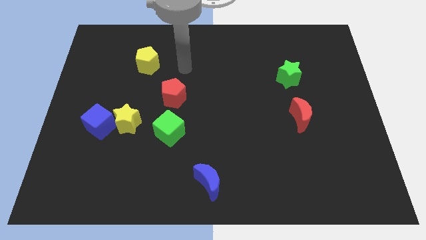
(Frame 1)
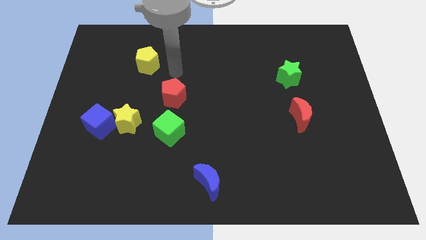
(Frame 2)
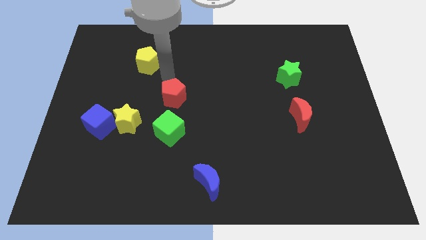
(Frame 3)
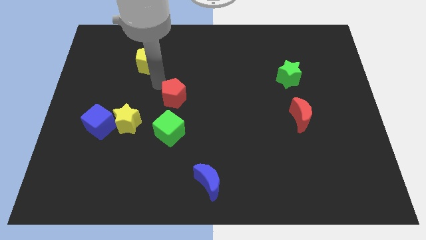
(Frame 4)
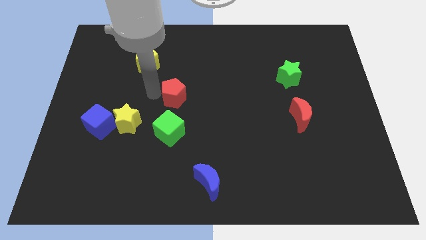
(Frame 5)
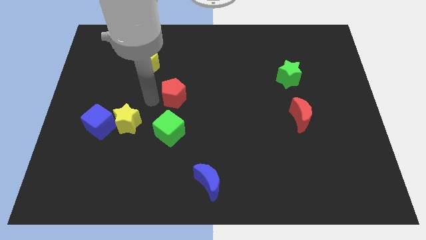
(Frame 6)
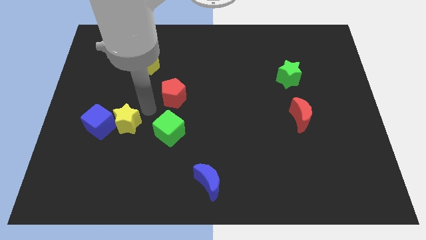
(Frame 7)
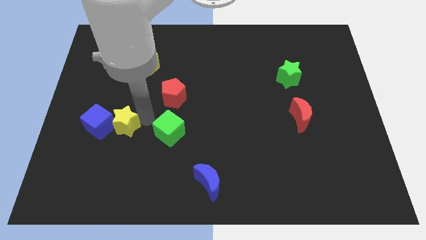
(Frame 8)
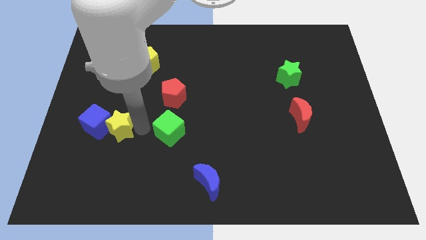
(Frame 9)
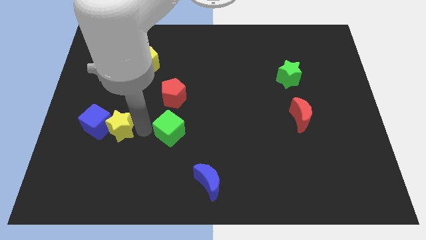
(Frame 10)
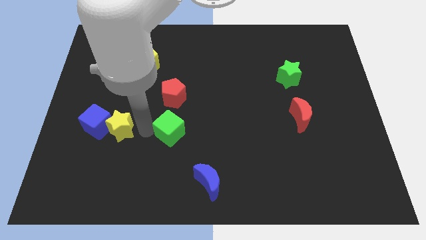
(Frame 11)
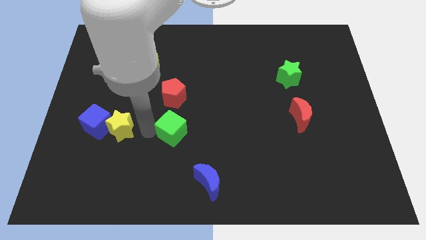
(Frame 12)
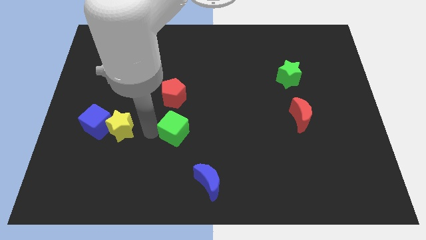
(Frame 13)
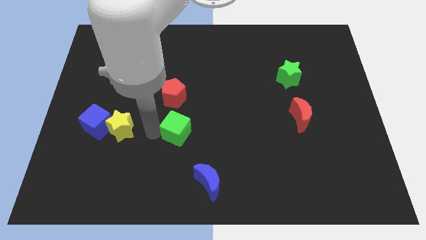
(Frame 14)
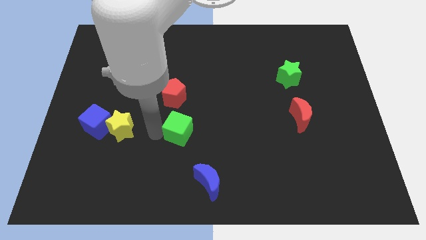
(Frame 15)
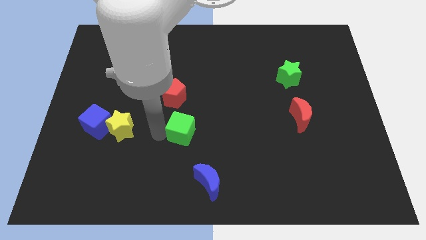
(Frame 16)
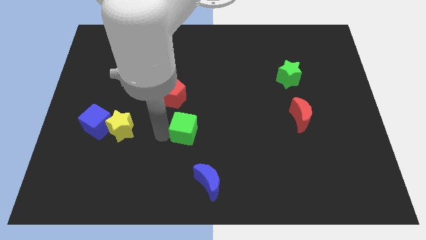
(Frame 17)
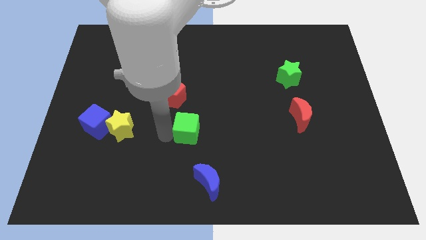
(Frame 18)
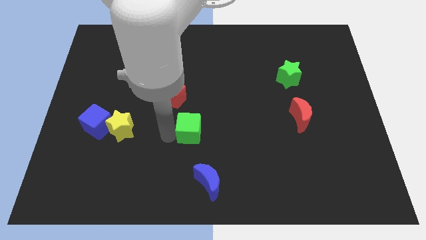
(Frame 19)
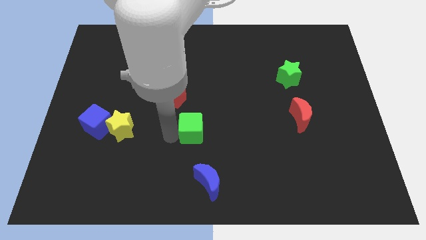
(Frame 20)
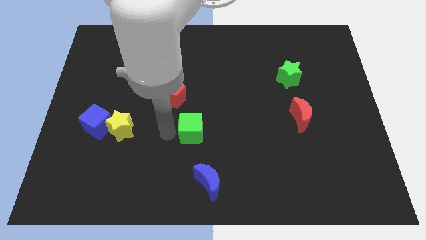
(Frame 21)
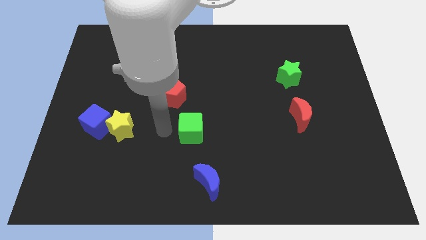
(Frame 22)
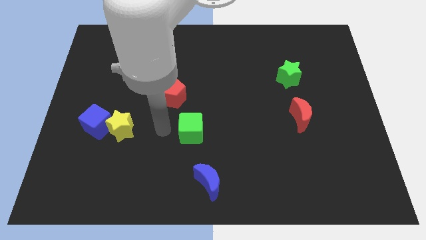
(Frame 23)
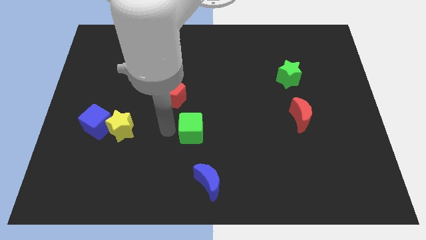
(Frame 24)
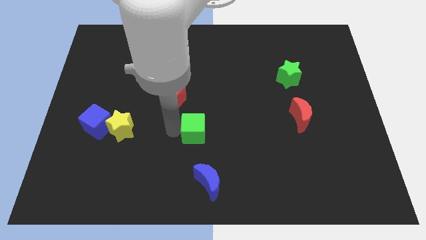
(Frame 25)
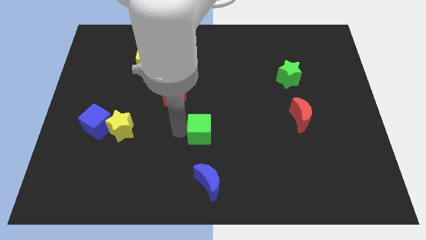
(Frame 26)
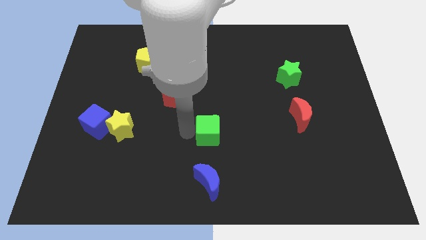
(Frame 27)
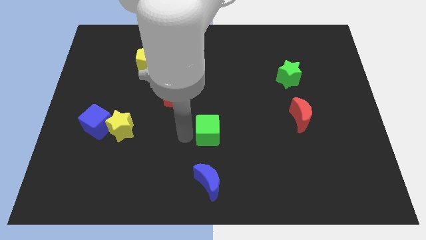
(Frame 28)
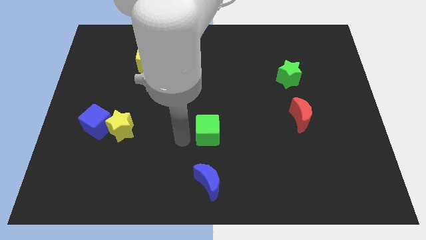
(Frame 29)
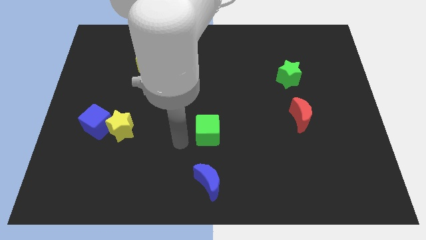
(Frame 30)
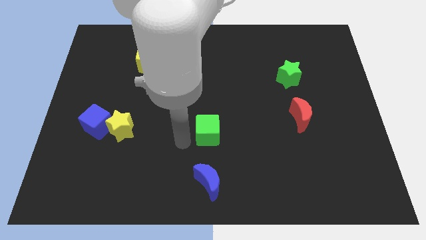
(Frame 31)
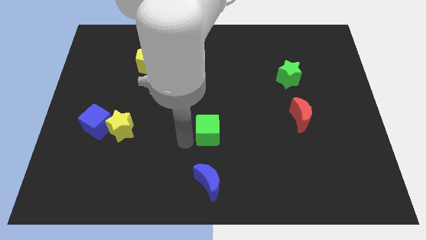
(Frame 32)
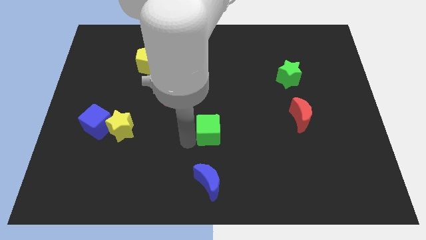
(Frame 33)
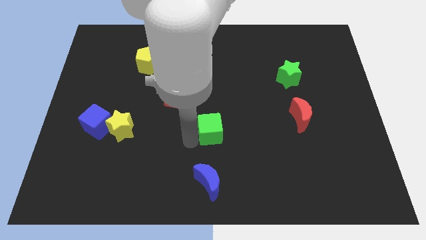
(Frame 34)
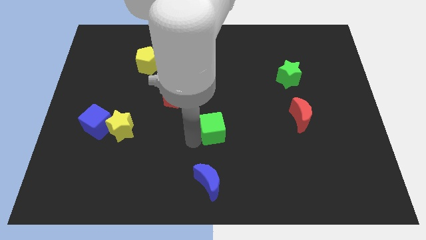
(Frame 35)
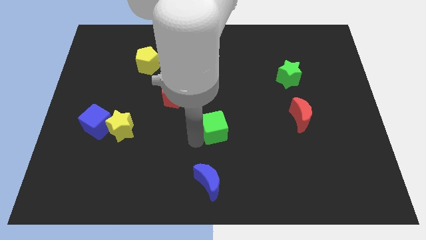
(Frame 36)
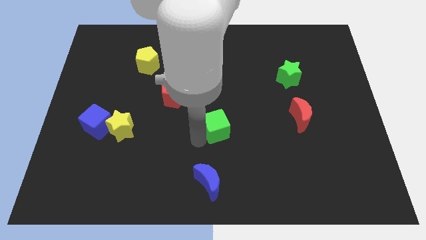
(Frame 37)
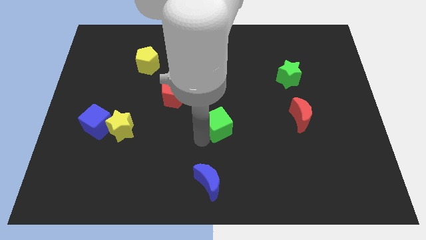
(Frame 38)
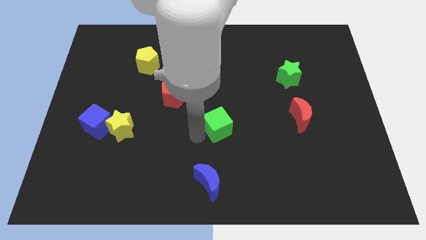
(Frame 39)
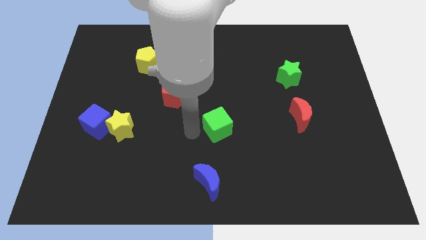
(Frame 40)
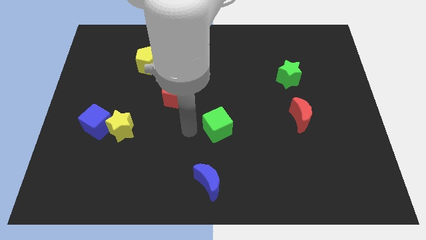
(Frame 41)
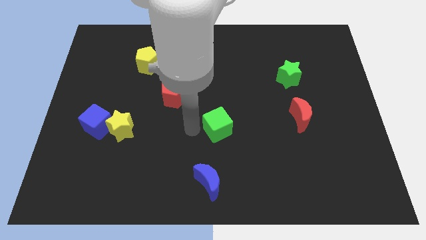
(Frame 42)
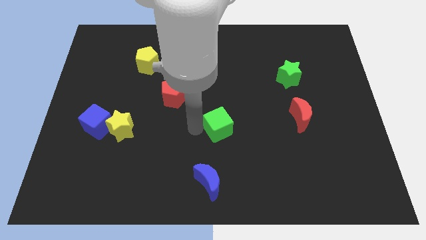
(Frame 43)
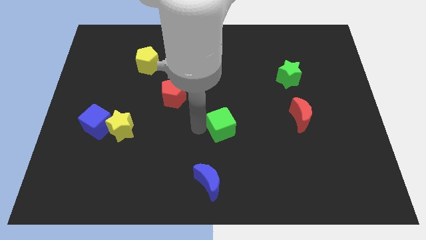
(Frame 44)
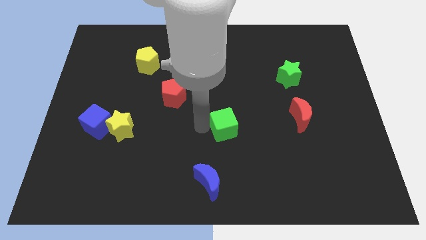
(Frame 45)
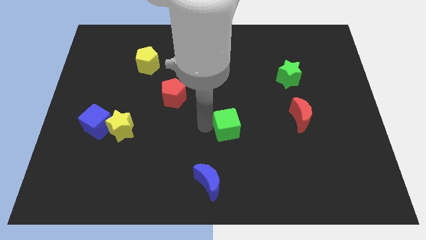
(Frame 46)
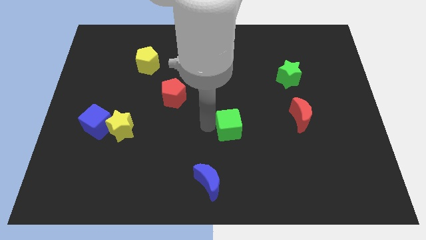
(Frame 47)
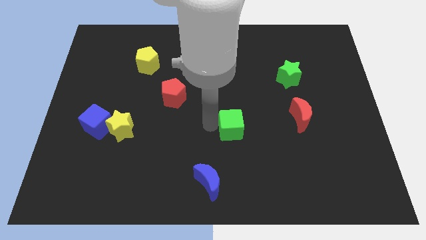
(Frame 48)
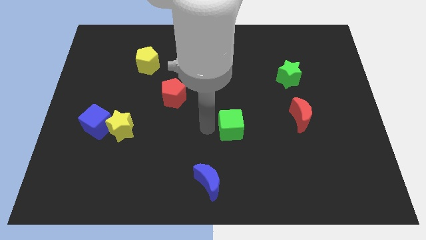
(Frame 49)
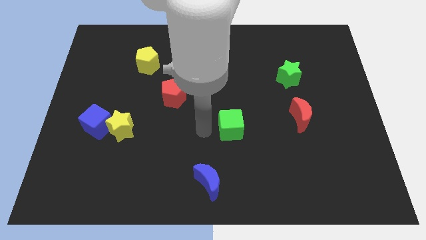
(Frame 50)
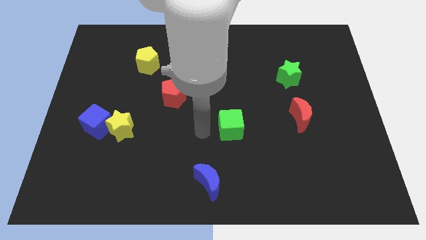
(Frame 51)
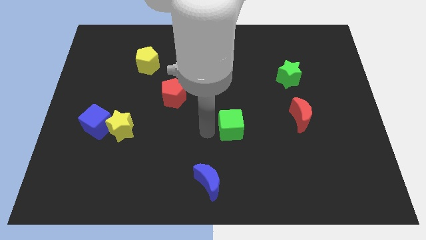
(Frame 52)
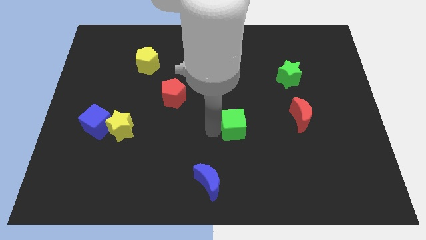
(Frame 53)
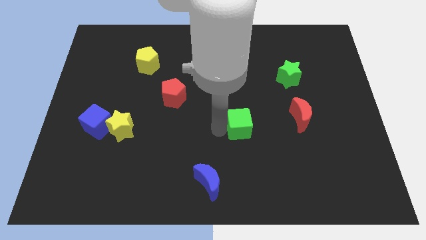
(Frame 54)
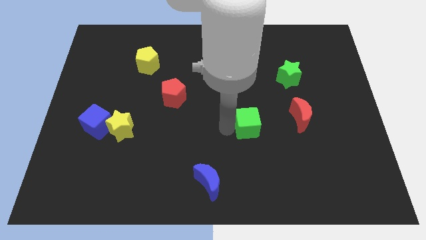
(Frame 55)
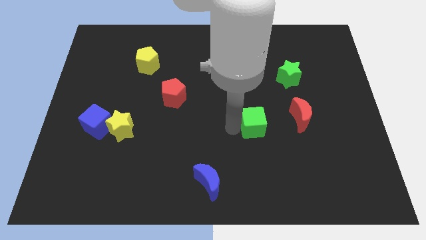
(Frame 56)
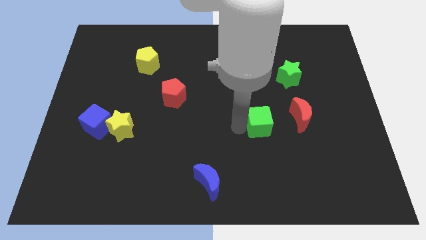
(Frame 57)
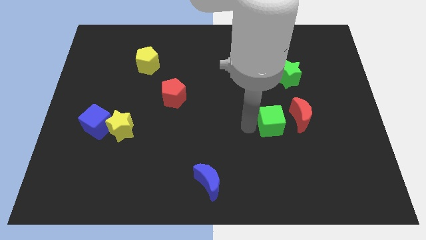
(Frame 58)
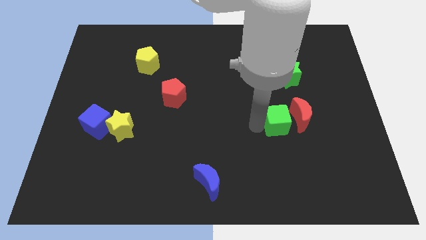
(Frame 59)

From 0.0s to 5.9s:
slide the green cube towards the red moon
